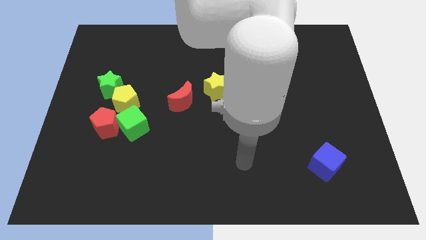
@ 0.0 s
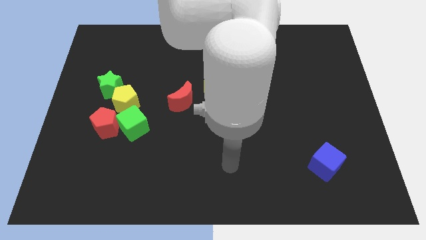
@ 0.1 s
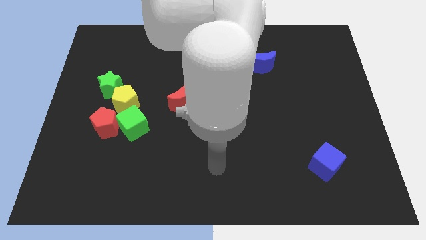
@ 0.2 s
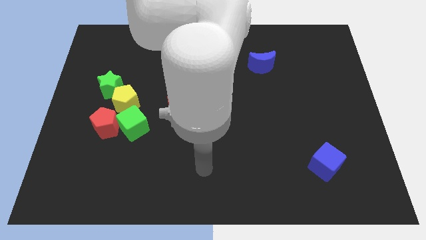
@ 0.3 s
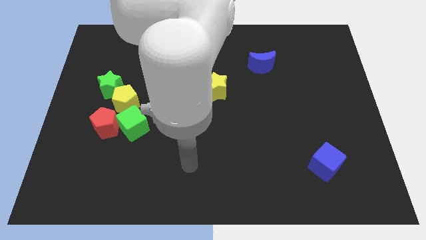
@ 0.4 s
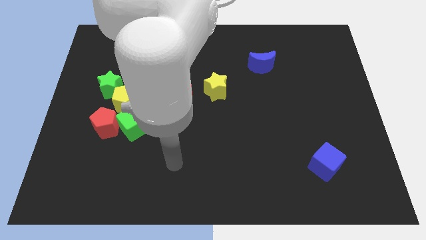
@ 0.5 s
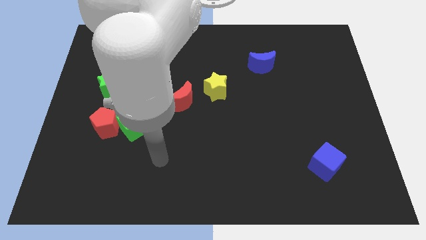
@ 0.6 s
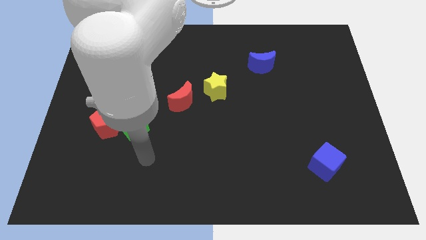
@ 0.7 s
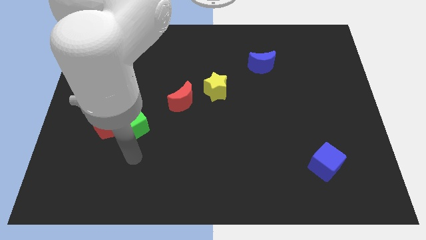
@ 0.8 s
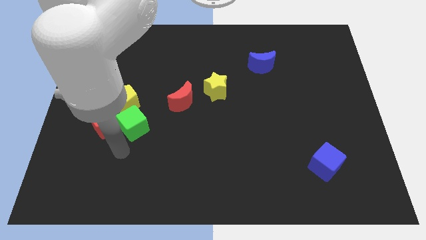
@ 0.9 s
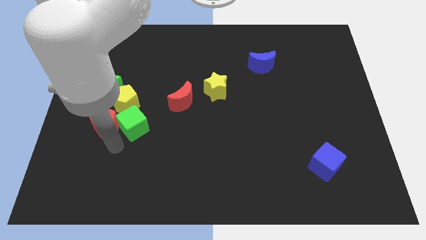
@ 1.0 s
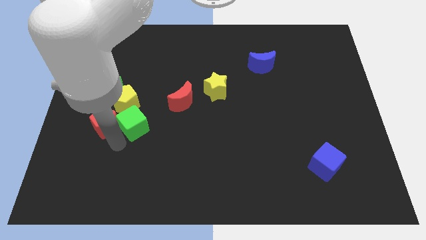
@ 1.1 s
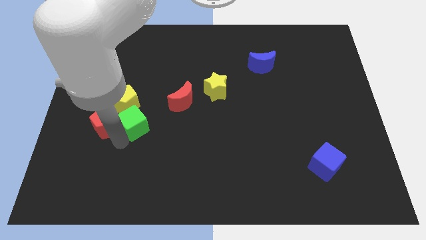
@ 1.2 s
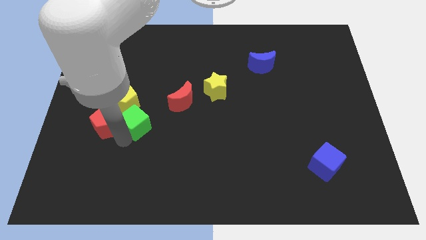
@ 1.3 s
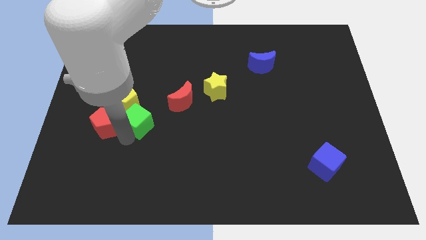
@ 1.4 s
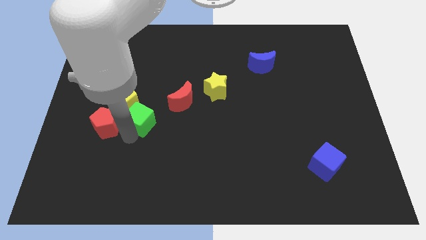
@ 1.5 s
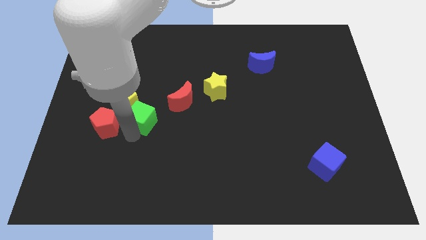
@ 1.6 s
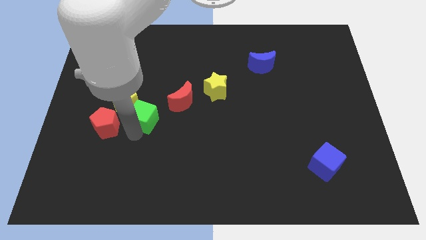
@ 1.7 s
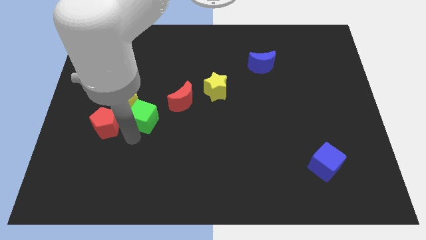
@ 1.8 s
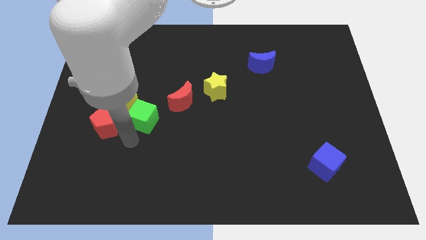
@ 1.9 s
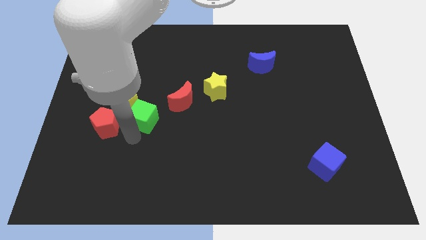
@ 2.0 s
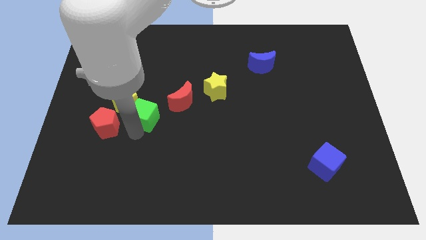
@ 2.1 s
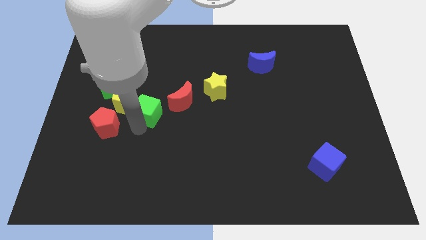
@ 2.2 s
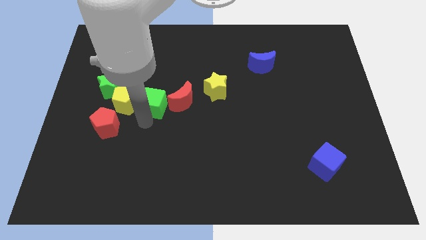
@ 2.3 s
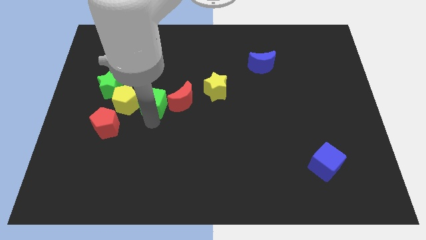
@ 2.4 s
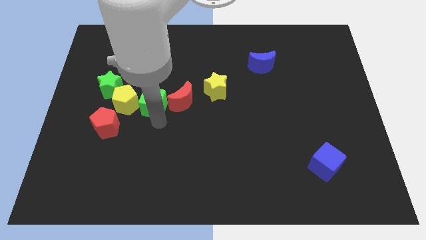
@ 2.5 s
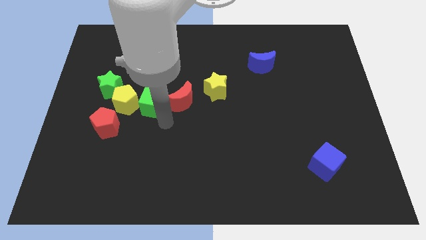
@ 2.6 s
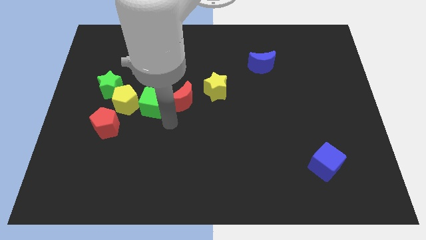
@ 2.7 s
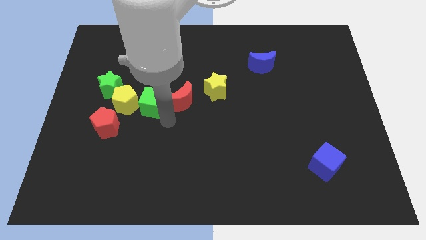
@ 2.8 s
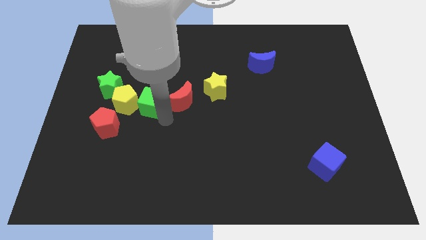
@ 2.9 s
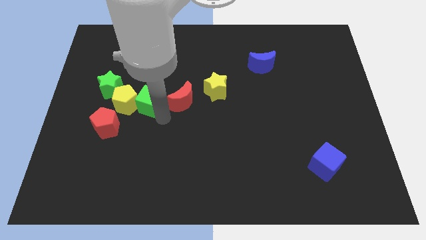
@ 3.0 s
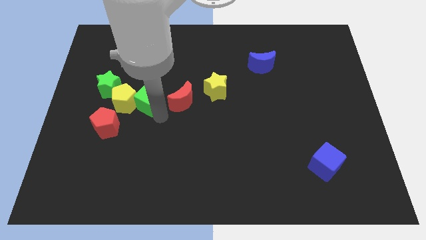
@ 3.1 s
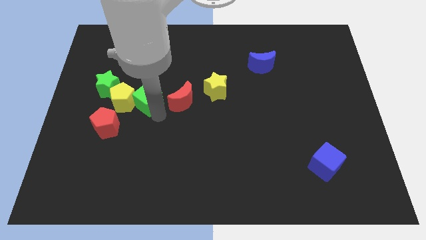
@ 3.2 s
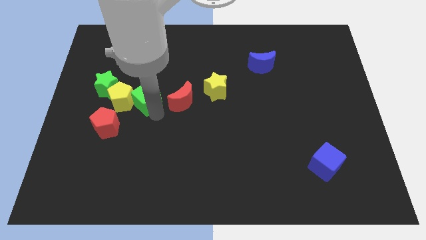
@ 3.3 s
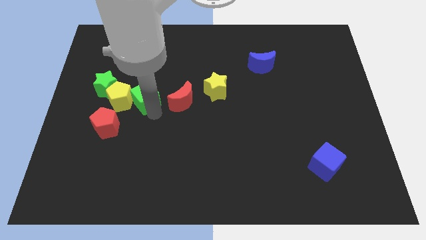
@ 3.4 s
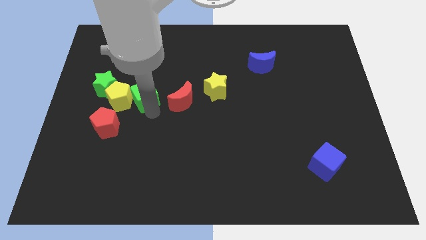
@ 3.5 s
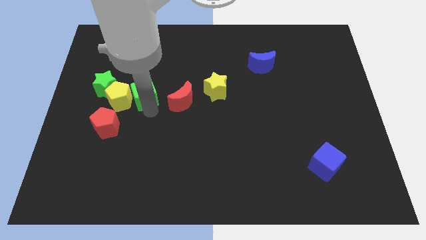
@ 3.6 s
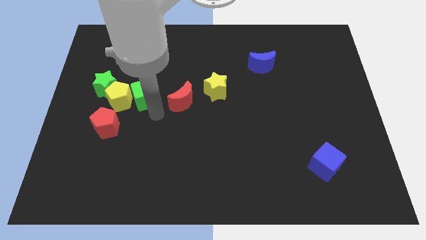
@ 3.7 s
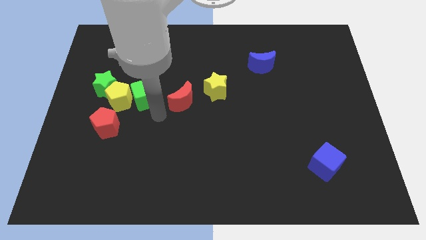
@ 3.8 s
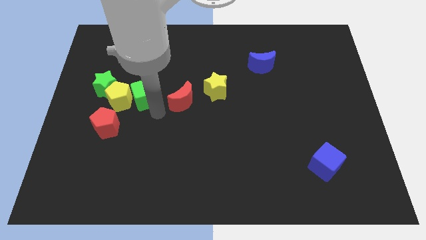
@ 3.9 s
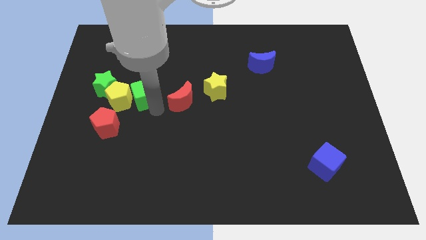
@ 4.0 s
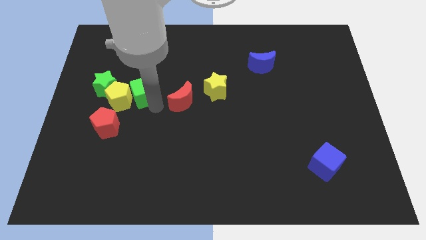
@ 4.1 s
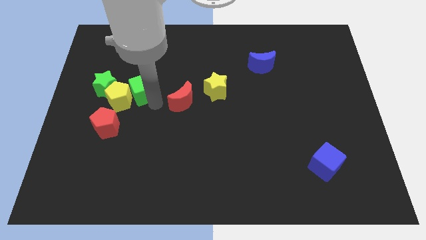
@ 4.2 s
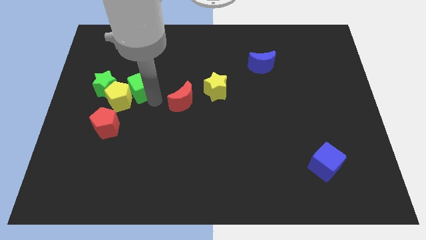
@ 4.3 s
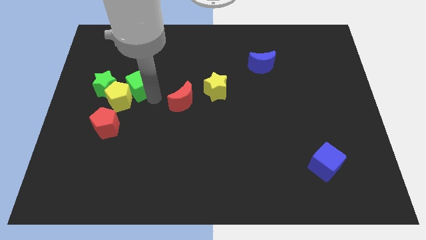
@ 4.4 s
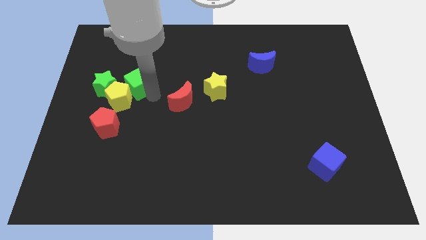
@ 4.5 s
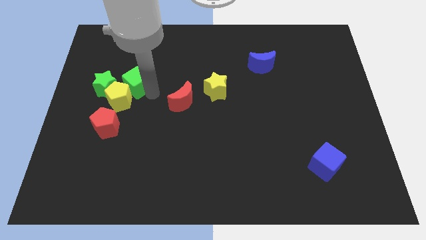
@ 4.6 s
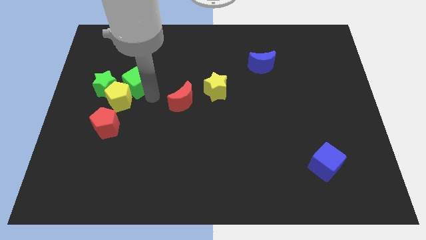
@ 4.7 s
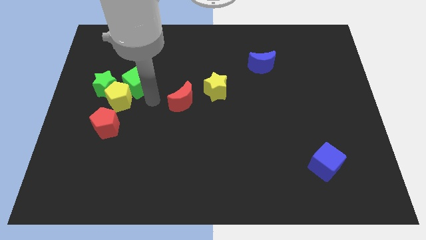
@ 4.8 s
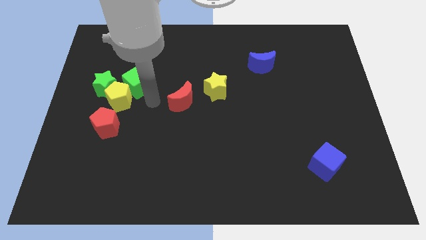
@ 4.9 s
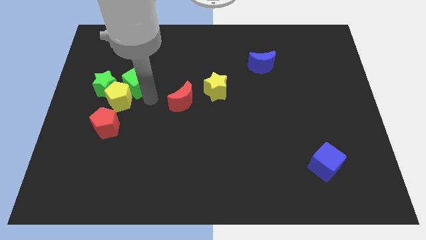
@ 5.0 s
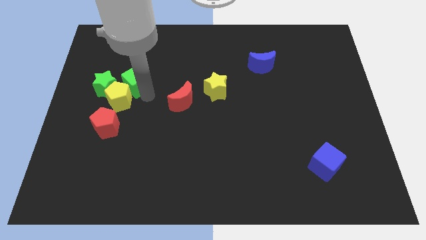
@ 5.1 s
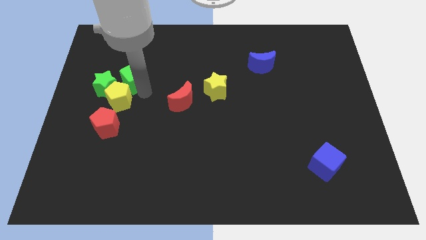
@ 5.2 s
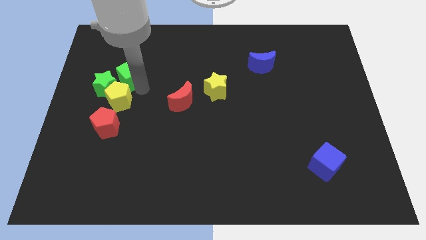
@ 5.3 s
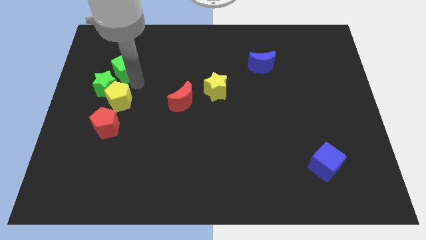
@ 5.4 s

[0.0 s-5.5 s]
slide the green cube above the green star

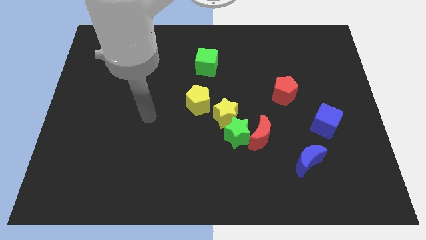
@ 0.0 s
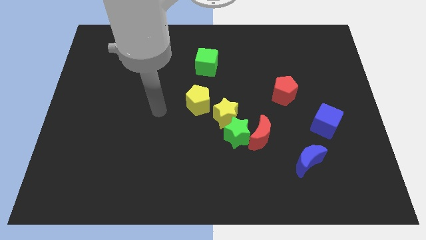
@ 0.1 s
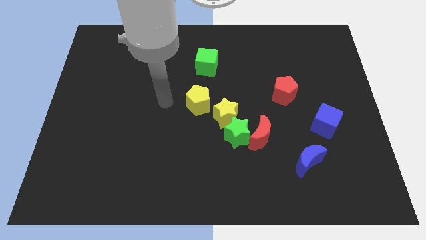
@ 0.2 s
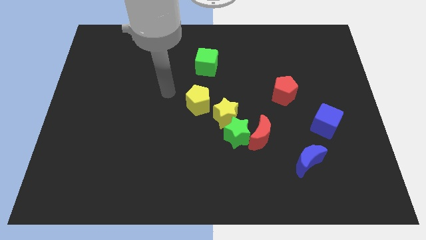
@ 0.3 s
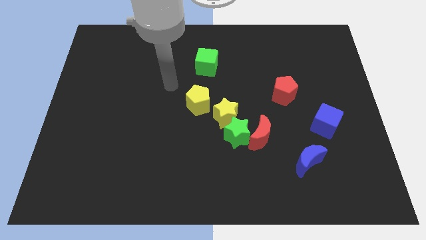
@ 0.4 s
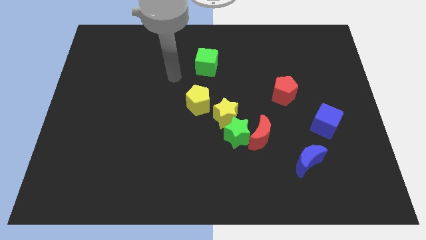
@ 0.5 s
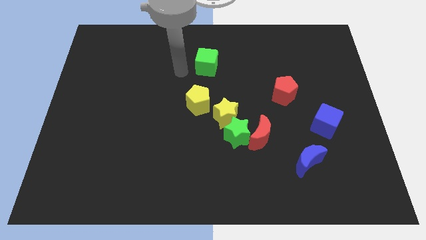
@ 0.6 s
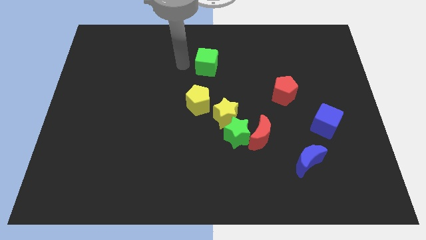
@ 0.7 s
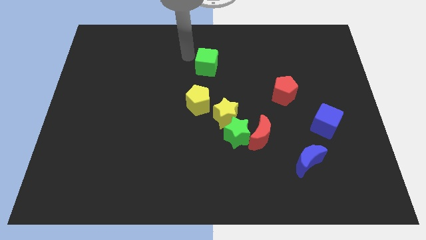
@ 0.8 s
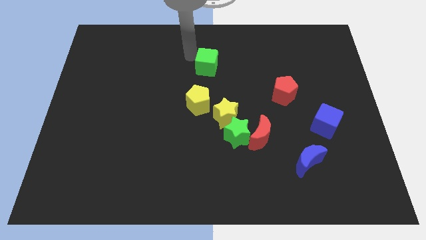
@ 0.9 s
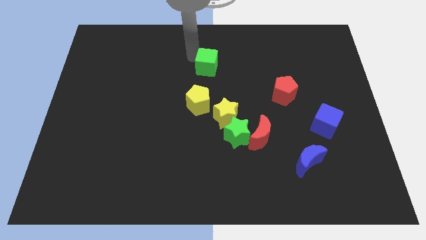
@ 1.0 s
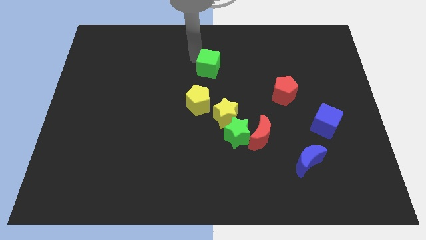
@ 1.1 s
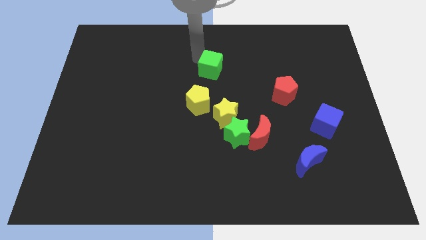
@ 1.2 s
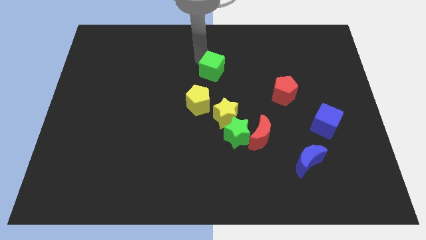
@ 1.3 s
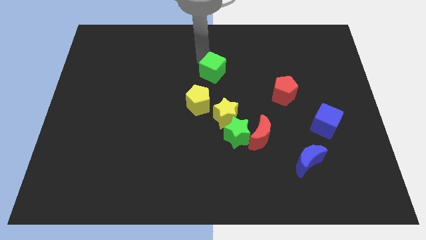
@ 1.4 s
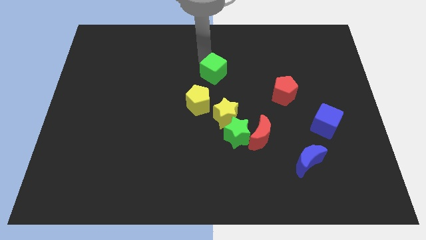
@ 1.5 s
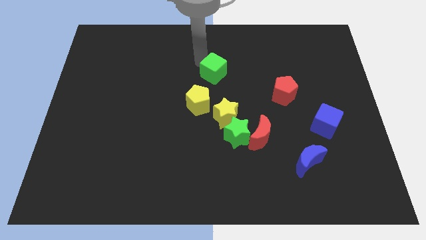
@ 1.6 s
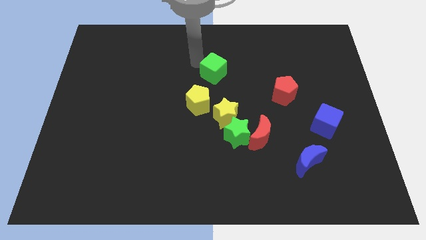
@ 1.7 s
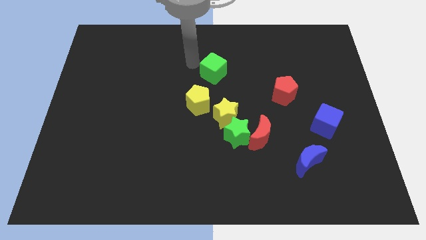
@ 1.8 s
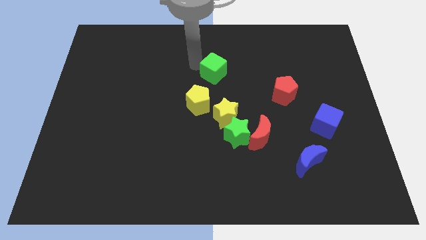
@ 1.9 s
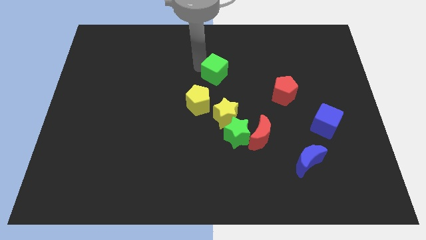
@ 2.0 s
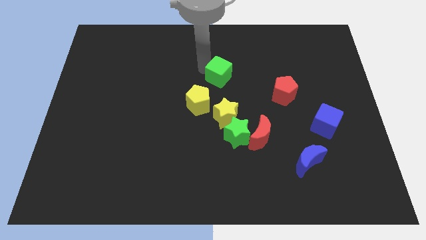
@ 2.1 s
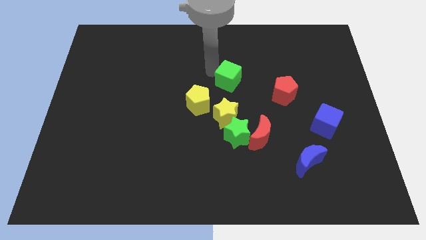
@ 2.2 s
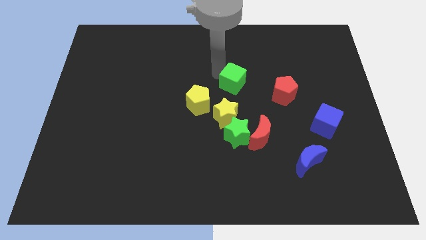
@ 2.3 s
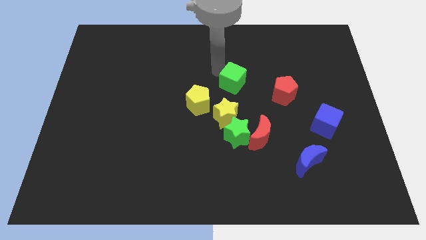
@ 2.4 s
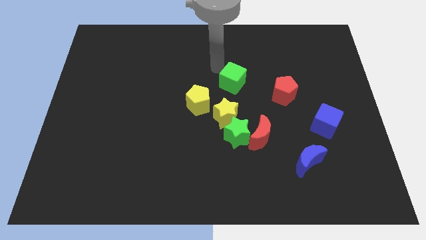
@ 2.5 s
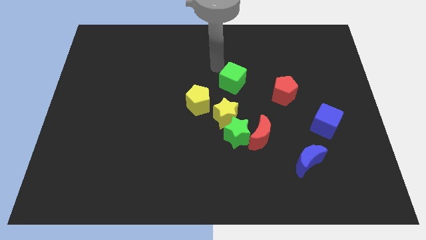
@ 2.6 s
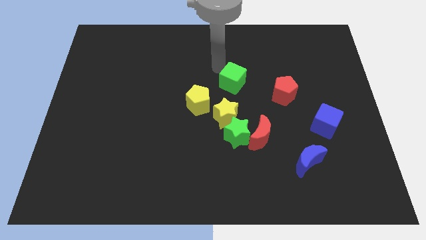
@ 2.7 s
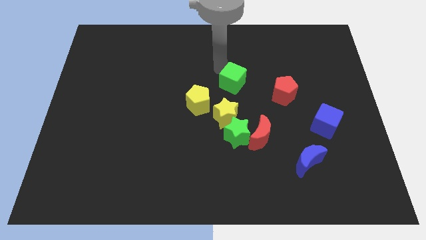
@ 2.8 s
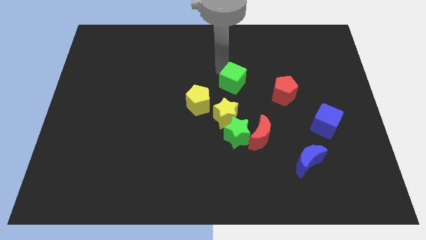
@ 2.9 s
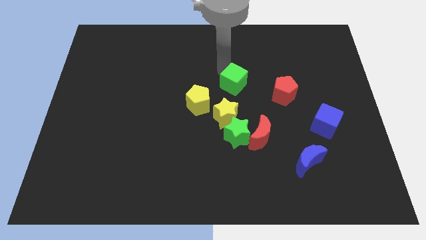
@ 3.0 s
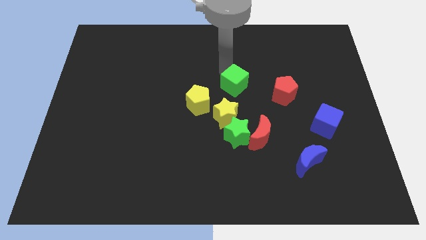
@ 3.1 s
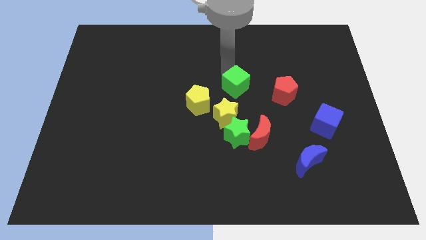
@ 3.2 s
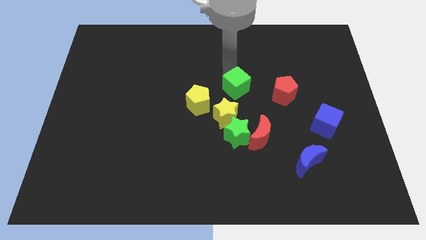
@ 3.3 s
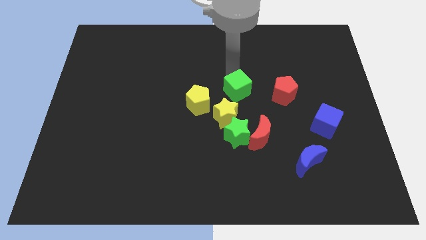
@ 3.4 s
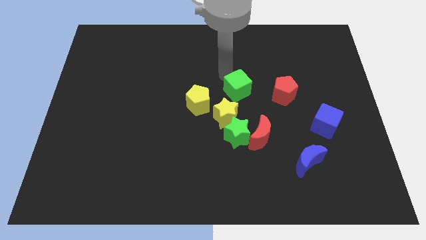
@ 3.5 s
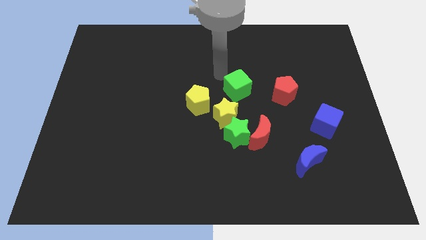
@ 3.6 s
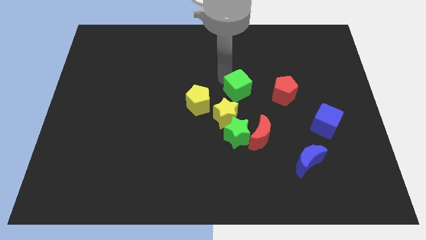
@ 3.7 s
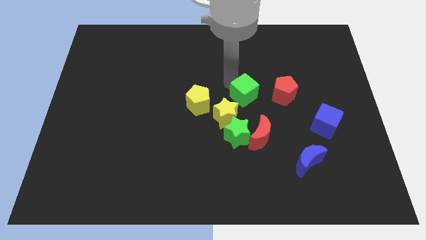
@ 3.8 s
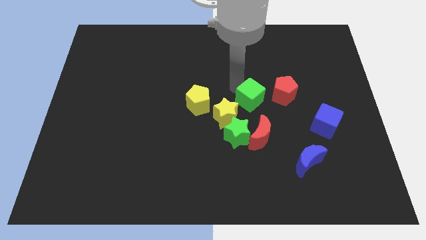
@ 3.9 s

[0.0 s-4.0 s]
push the green cube to the bottom left side of the red pentagon
